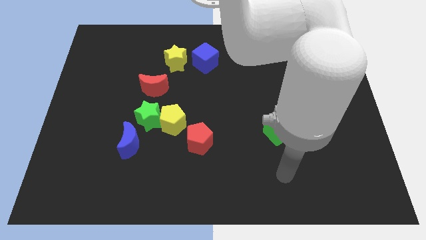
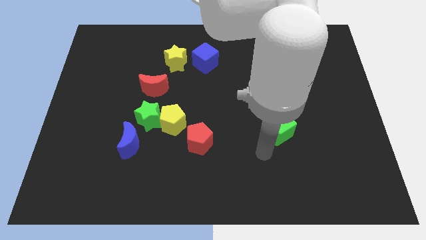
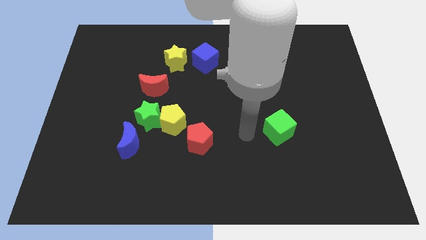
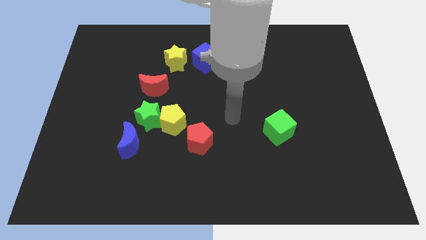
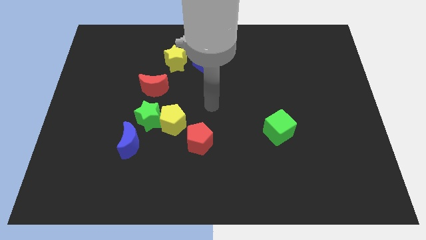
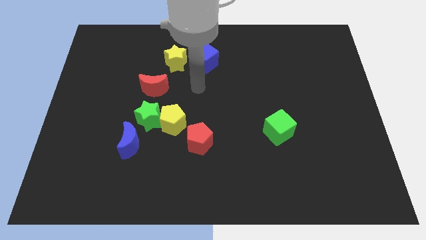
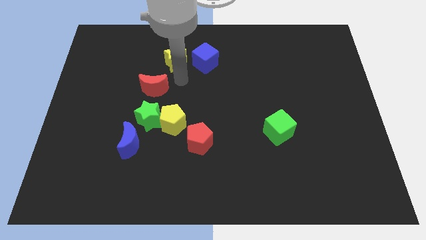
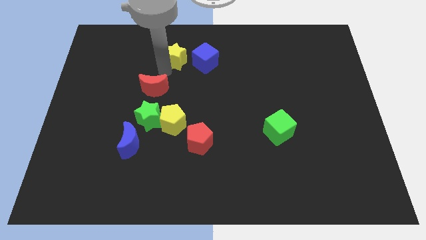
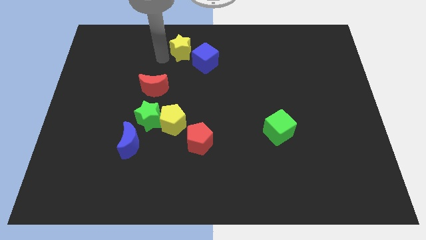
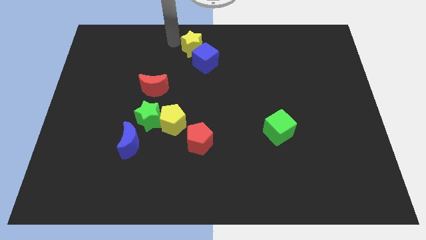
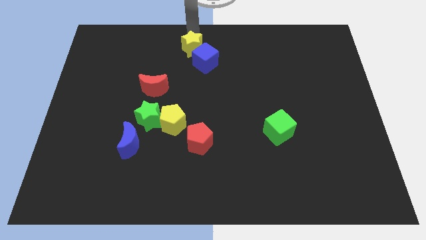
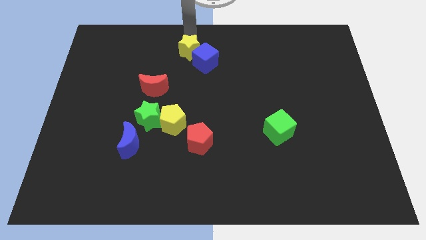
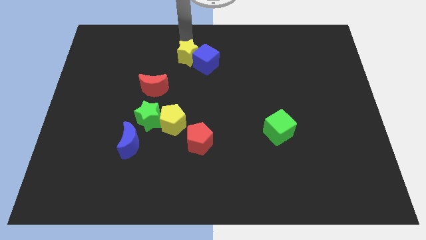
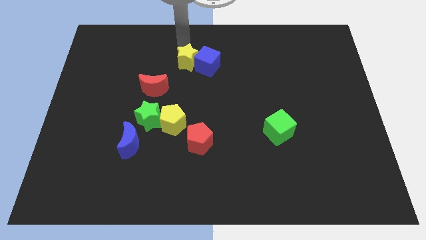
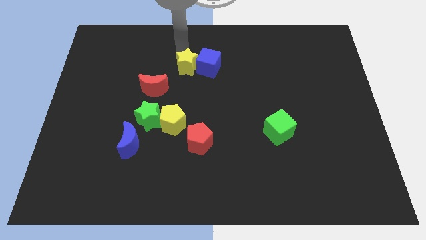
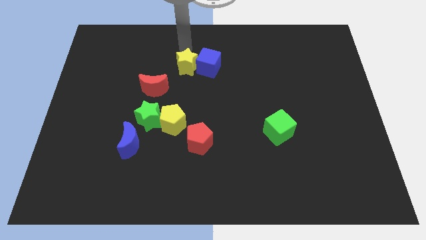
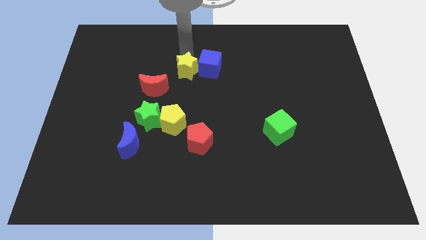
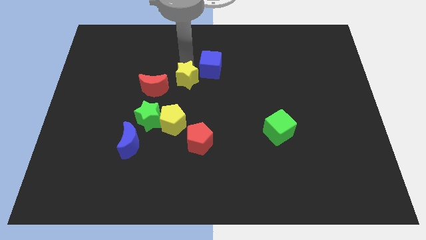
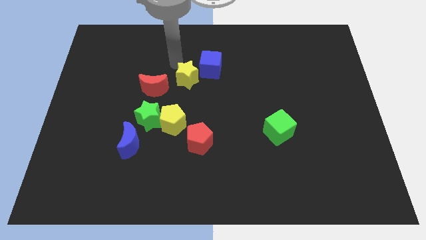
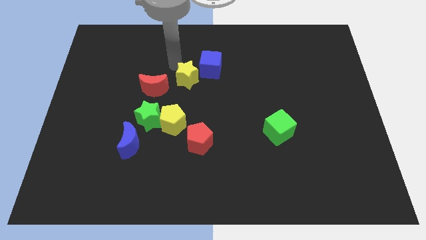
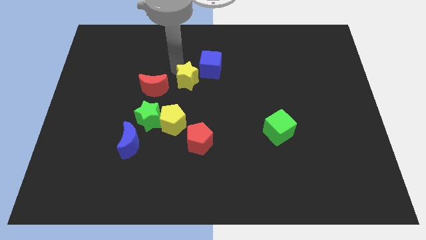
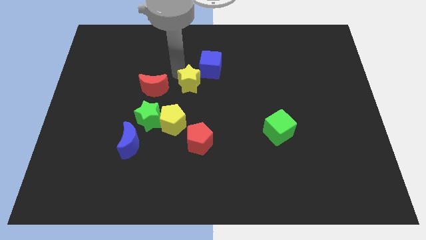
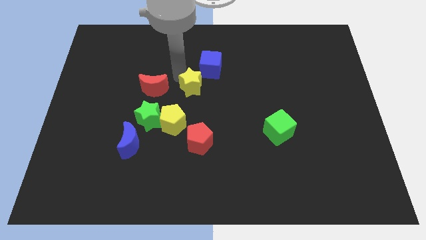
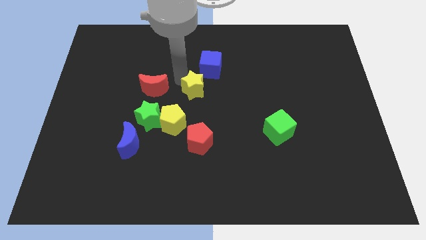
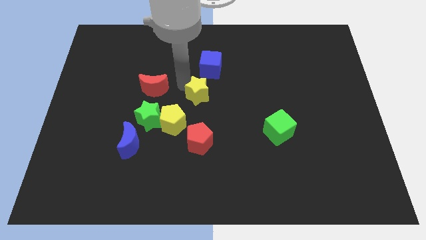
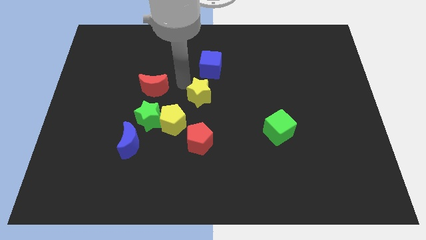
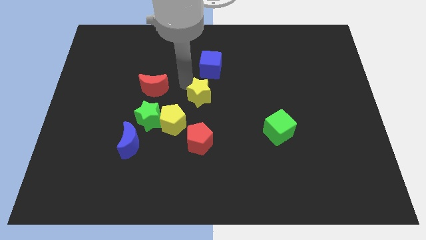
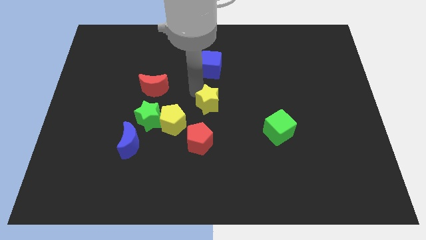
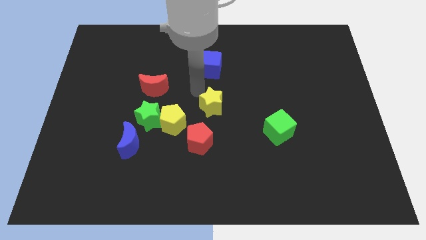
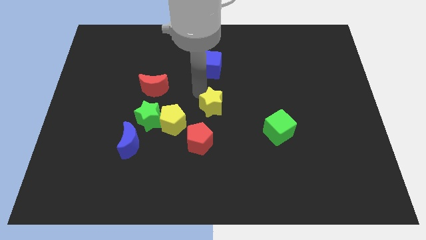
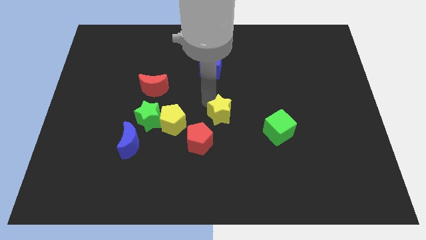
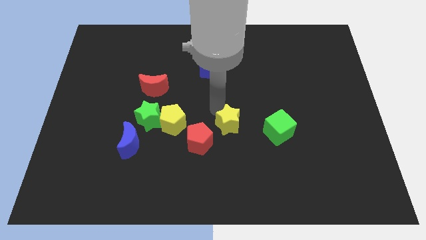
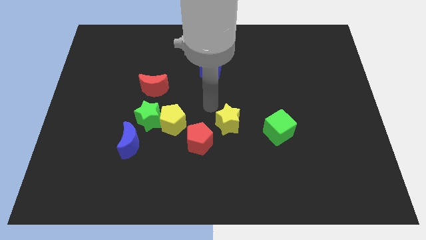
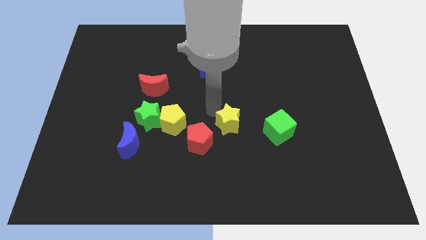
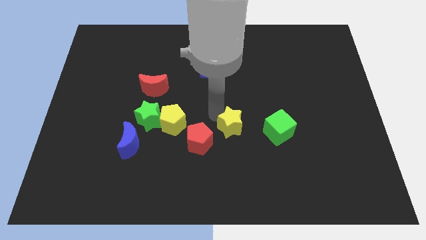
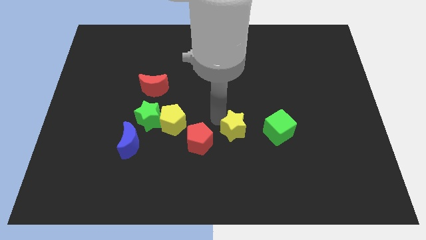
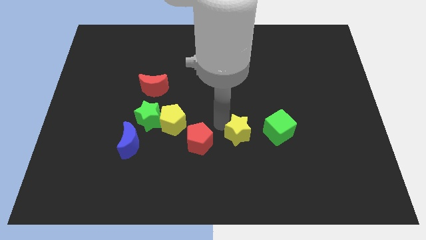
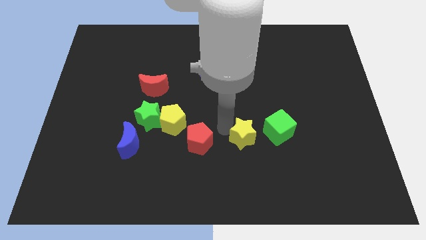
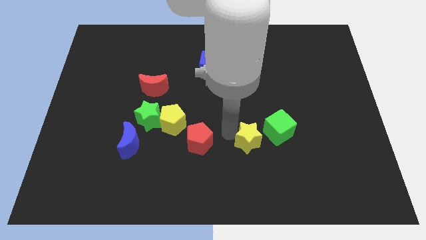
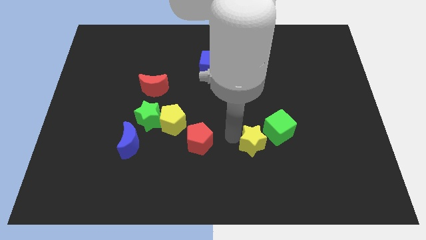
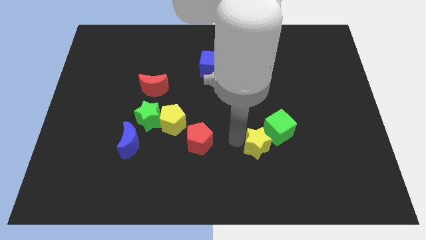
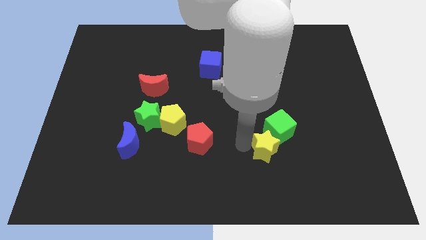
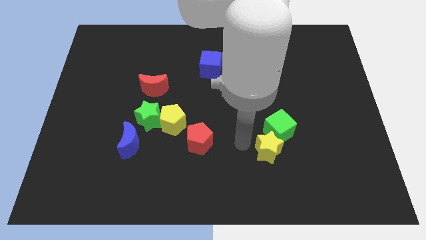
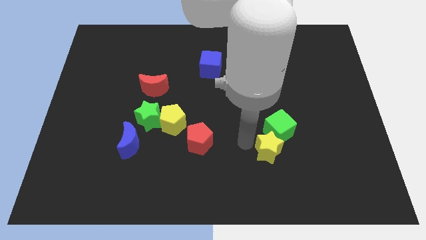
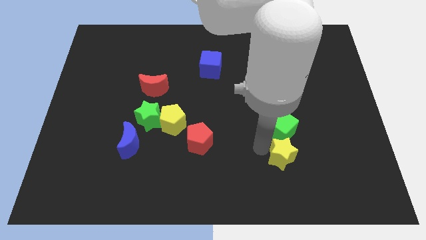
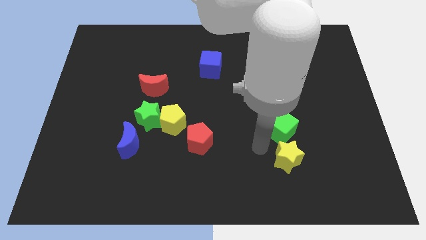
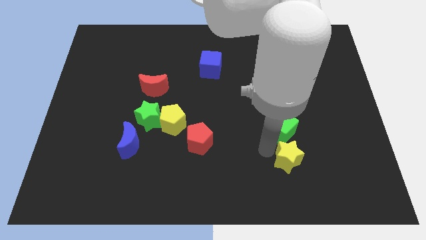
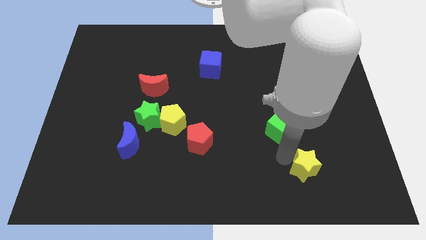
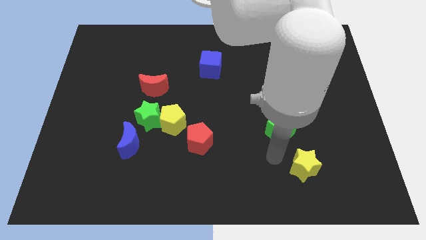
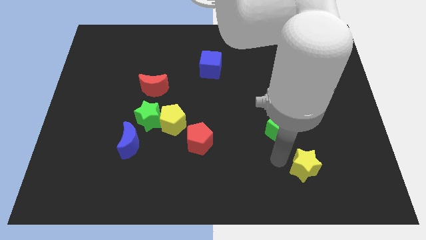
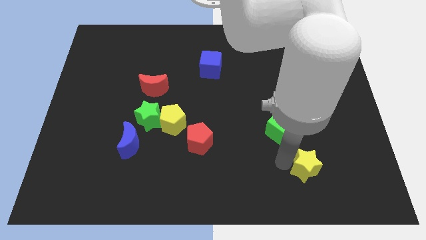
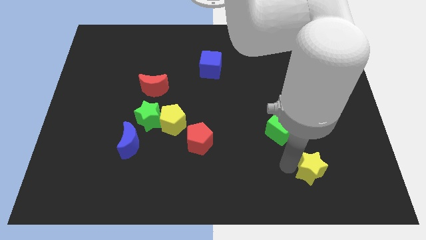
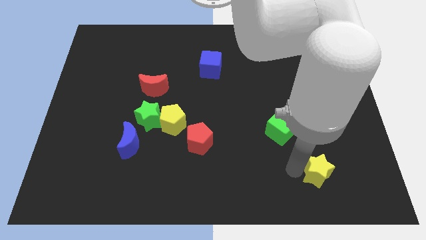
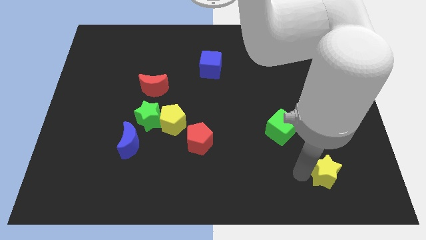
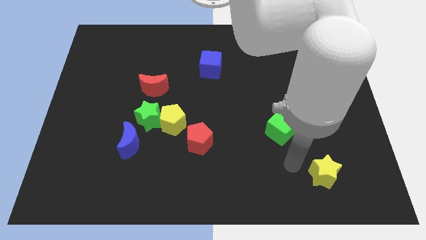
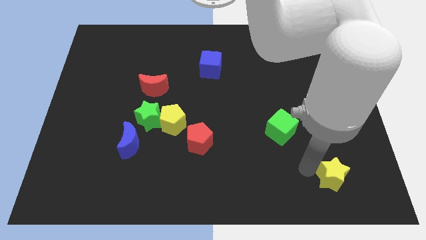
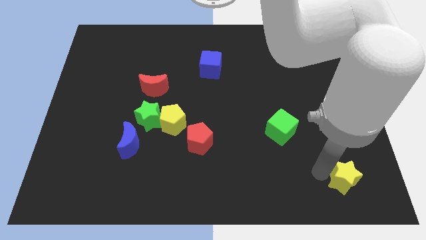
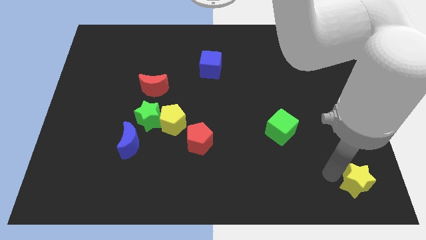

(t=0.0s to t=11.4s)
slide the yellow star to the bottom right of the board

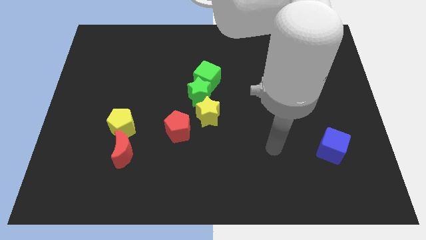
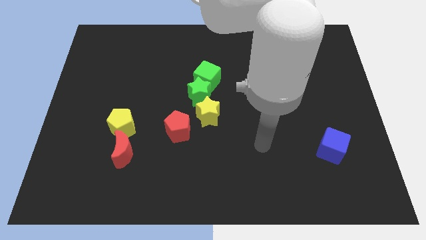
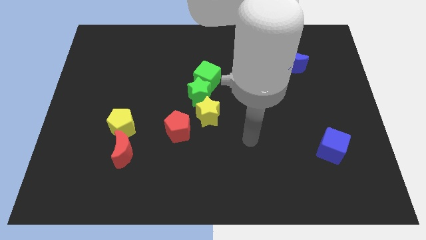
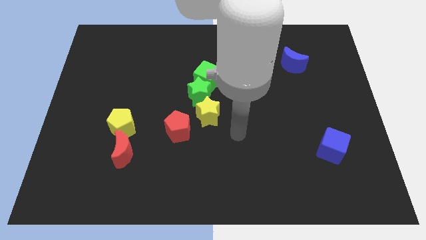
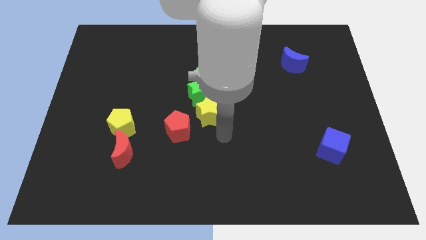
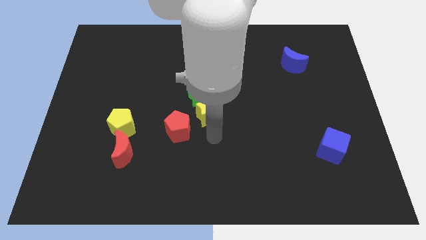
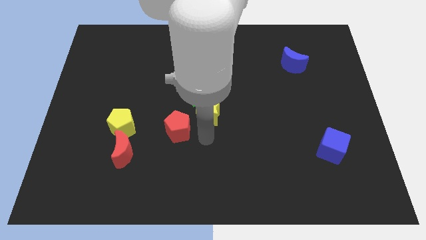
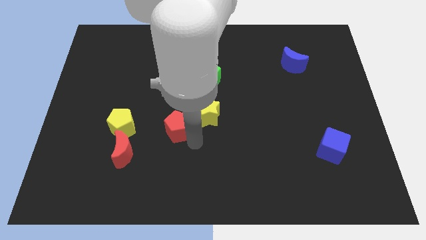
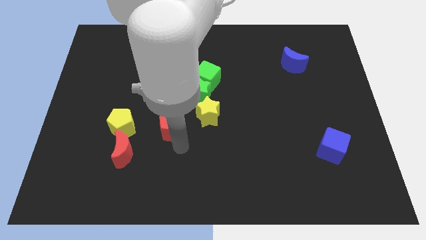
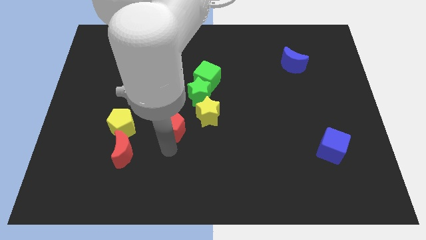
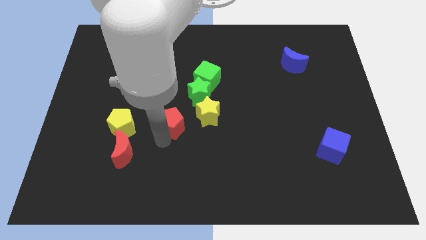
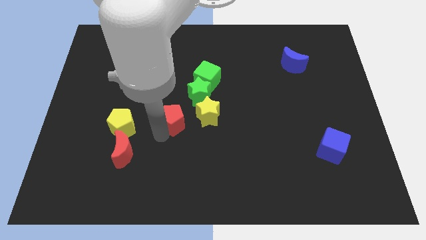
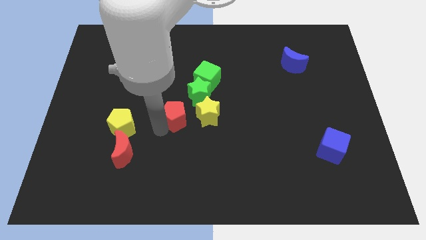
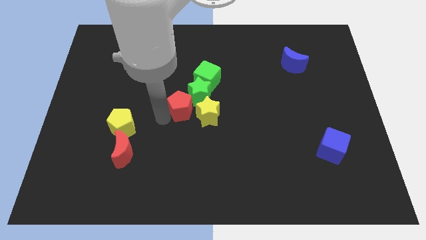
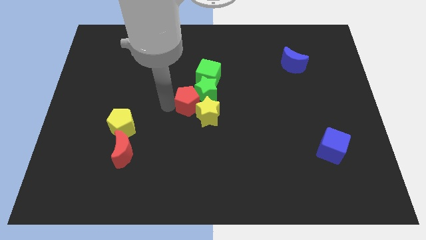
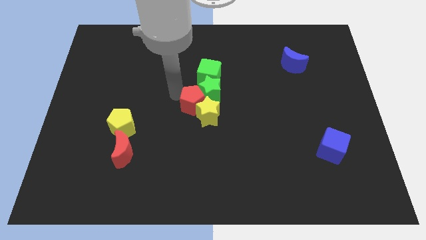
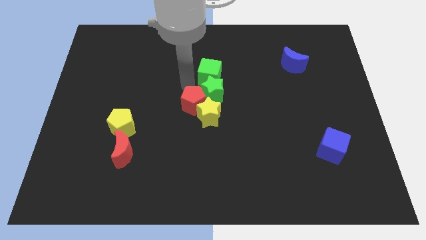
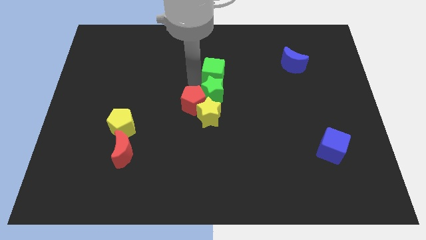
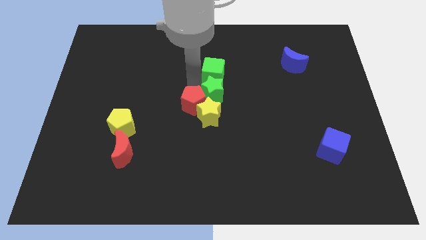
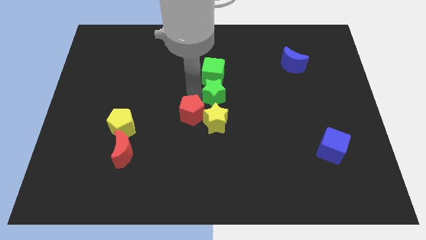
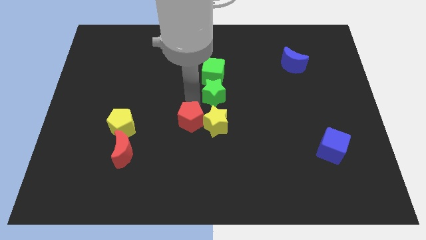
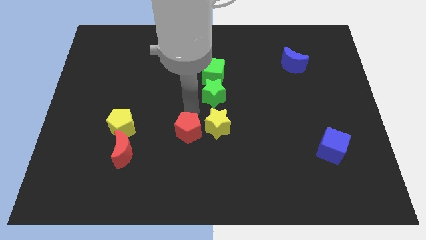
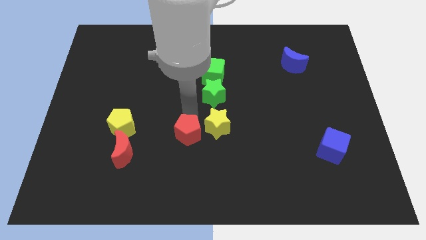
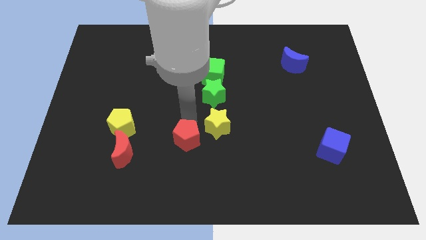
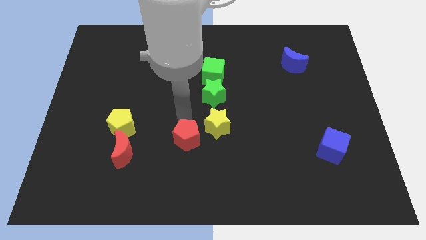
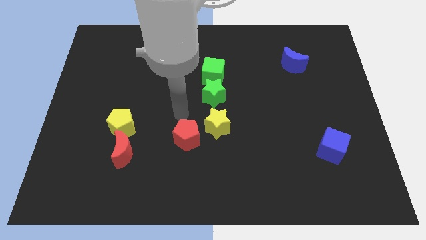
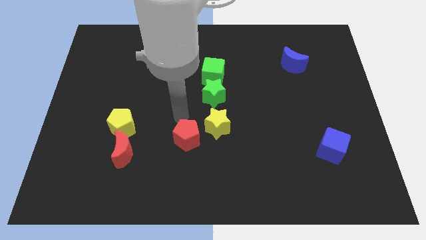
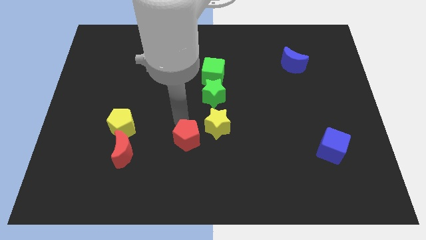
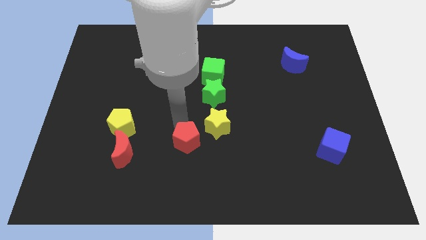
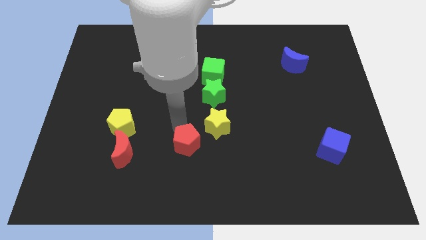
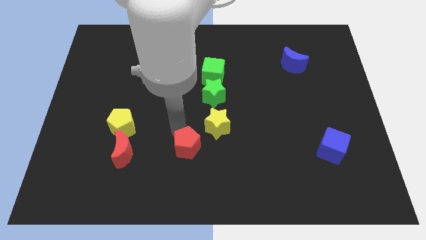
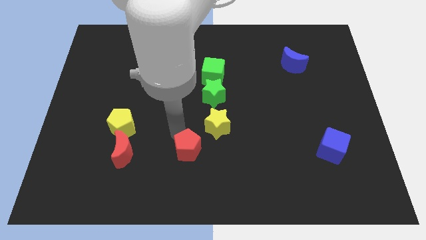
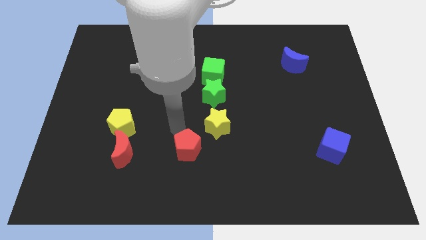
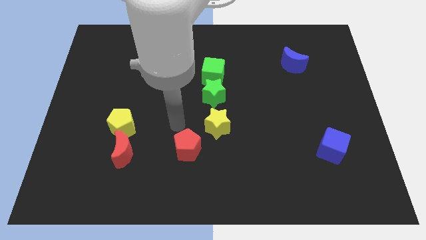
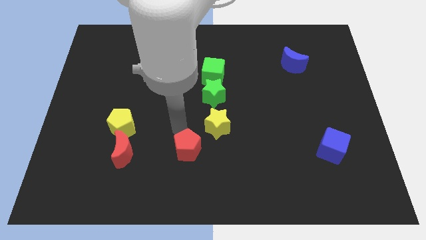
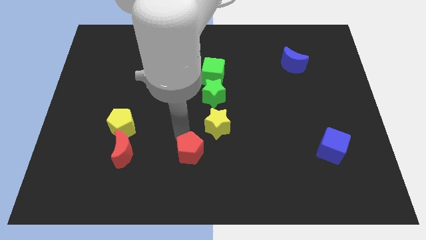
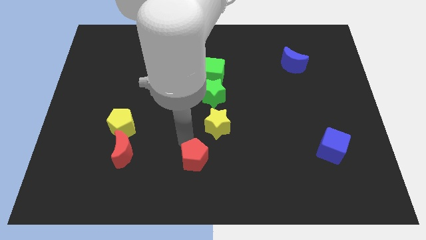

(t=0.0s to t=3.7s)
put the red pentagon to the bottom
